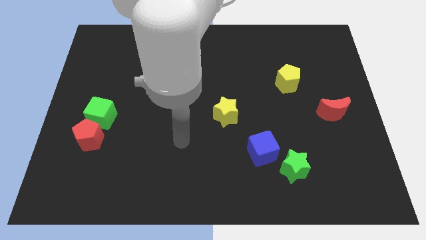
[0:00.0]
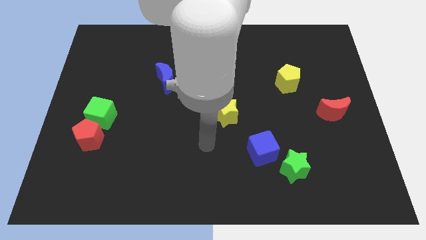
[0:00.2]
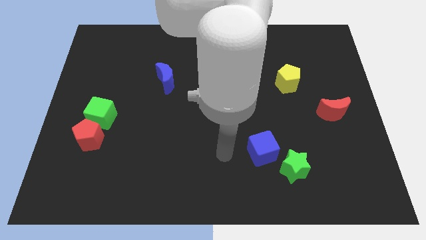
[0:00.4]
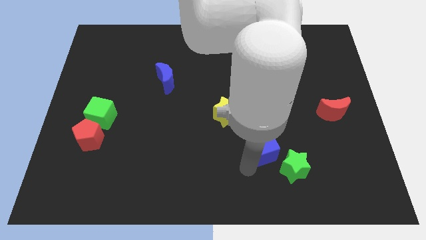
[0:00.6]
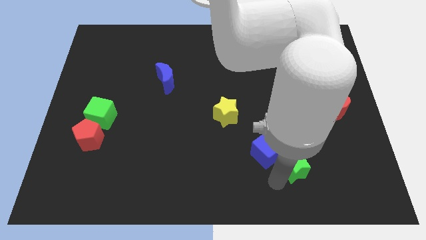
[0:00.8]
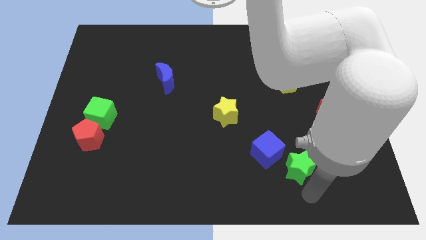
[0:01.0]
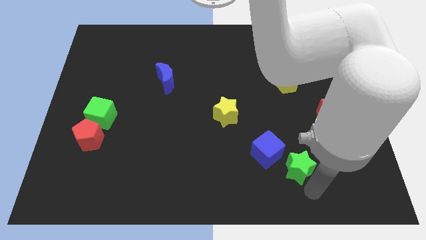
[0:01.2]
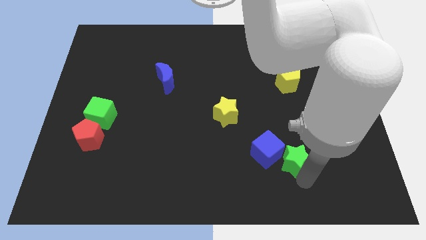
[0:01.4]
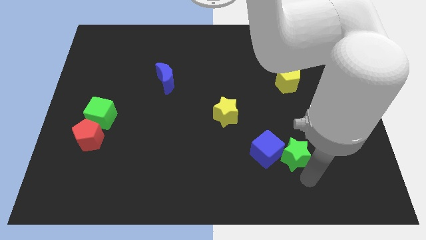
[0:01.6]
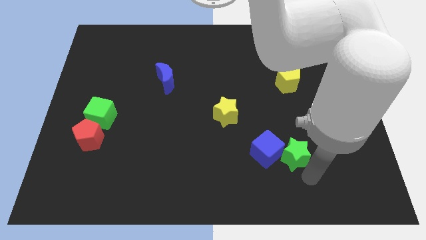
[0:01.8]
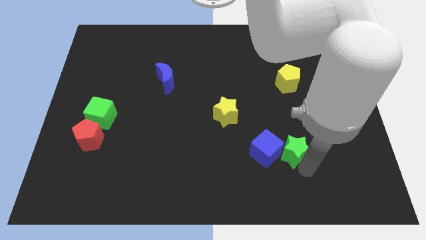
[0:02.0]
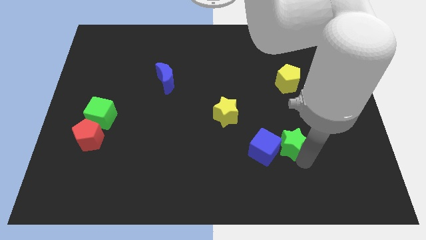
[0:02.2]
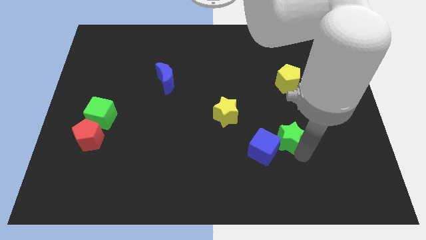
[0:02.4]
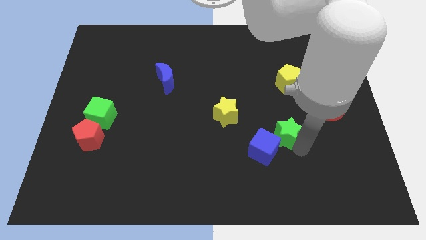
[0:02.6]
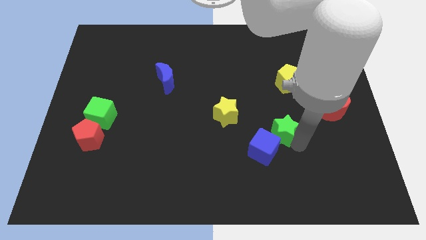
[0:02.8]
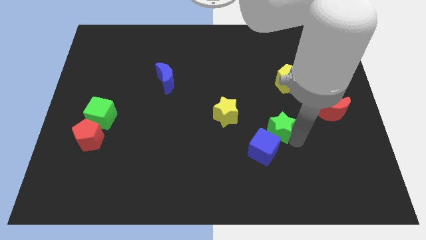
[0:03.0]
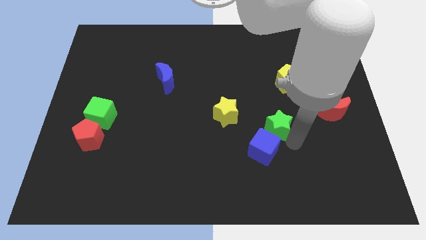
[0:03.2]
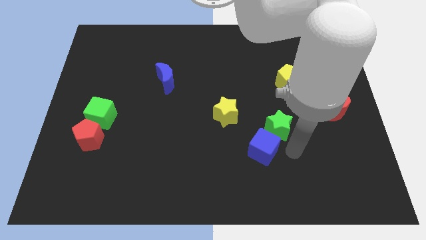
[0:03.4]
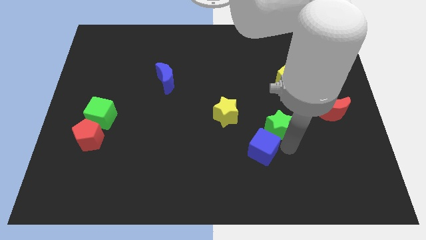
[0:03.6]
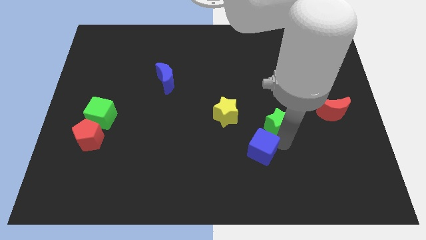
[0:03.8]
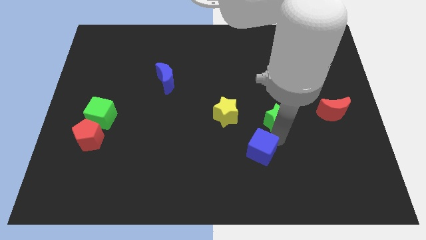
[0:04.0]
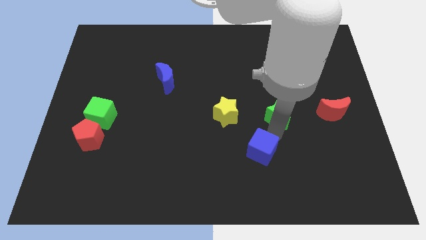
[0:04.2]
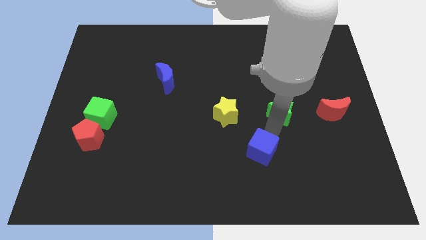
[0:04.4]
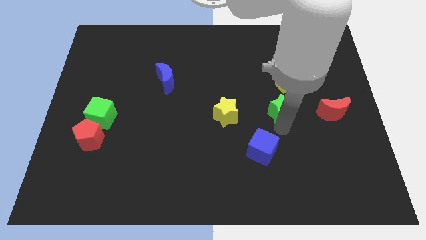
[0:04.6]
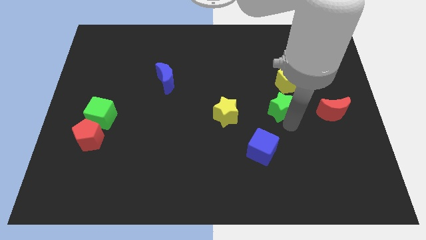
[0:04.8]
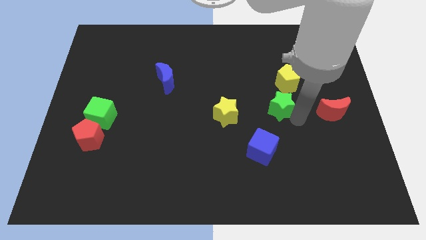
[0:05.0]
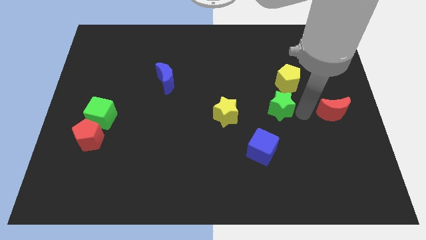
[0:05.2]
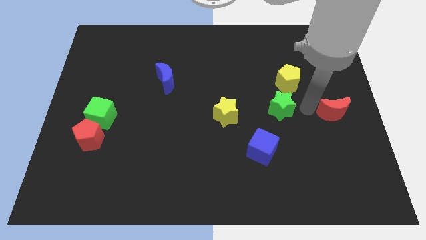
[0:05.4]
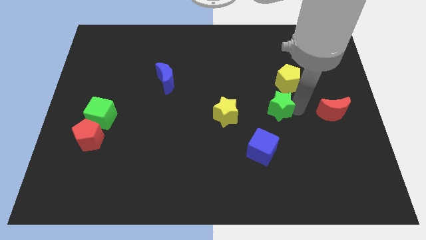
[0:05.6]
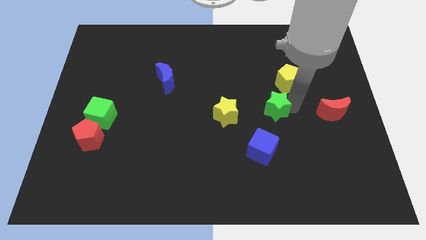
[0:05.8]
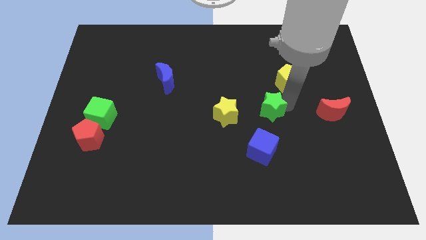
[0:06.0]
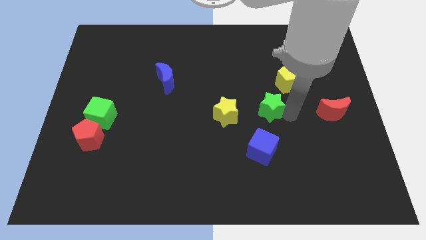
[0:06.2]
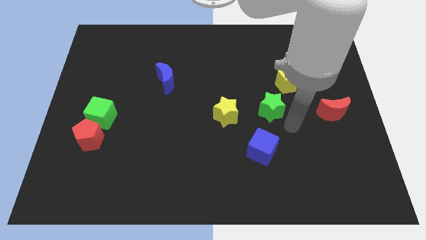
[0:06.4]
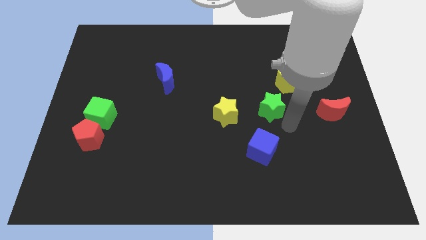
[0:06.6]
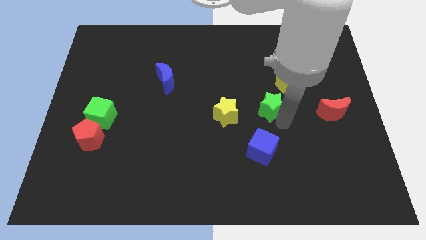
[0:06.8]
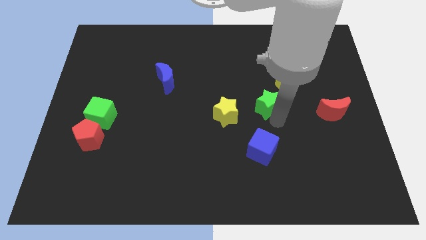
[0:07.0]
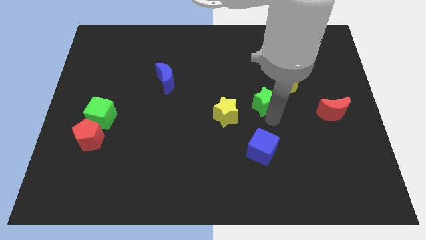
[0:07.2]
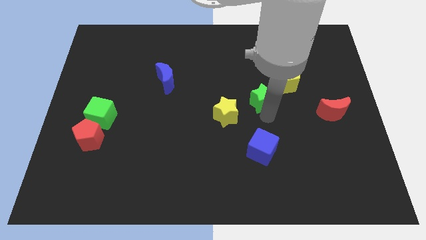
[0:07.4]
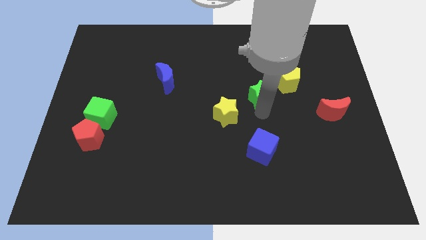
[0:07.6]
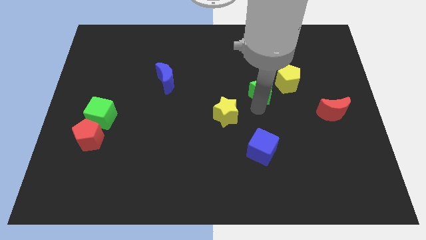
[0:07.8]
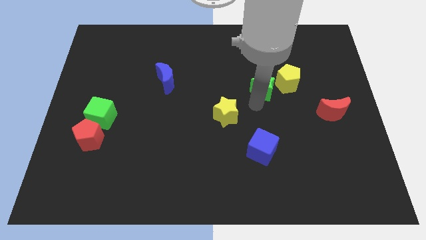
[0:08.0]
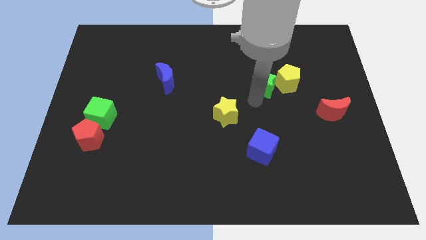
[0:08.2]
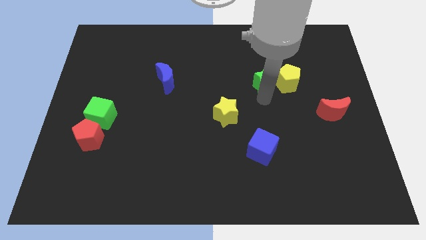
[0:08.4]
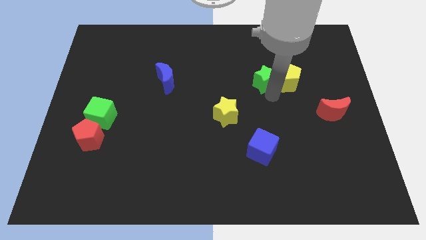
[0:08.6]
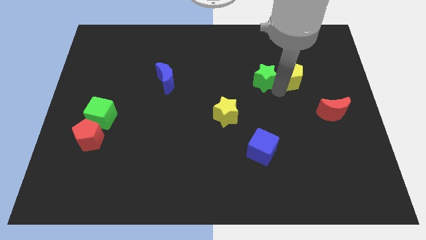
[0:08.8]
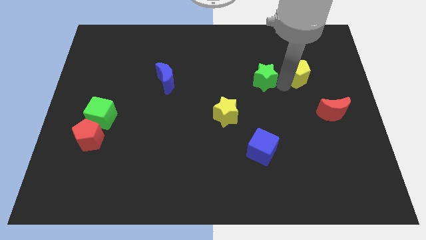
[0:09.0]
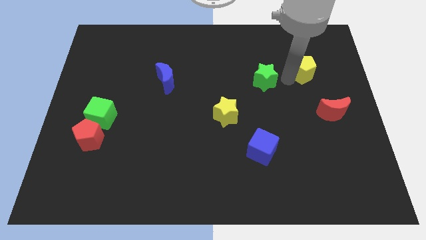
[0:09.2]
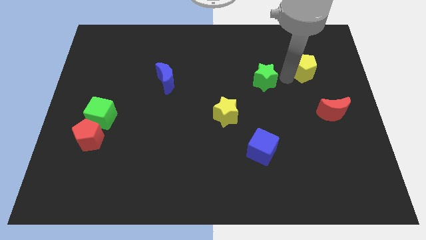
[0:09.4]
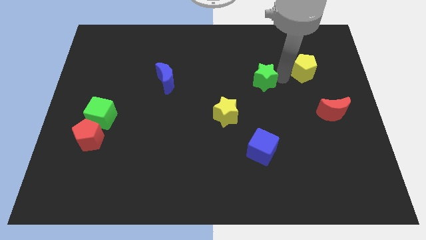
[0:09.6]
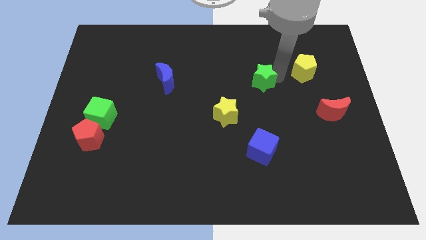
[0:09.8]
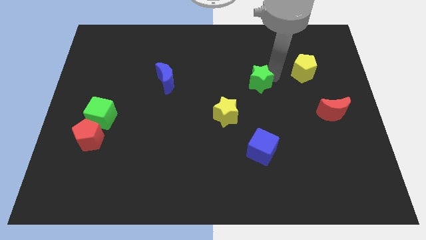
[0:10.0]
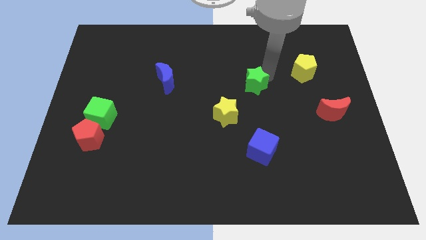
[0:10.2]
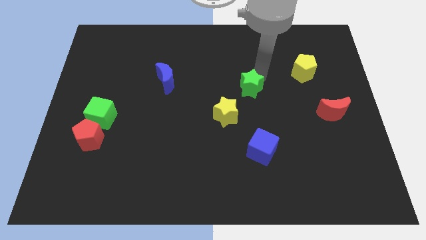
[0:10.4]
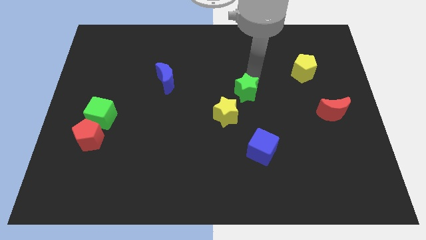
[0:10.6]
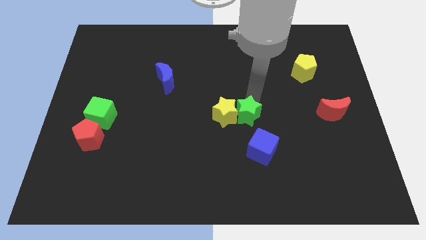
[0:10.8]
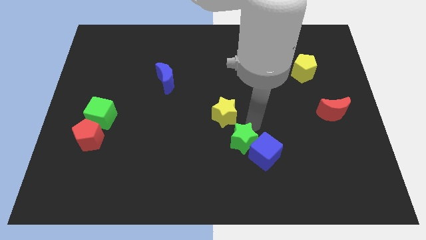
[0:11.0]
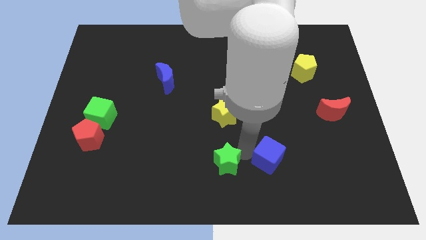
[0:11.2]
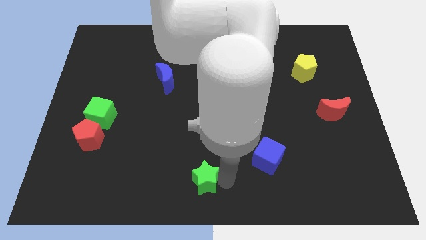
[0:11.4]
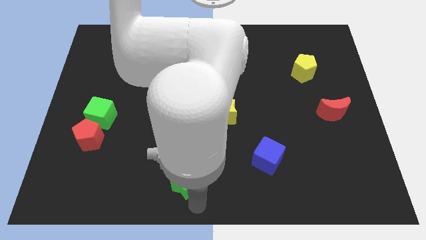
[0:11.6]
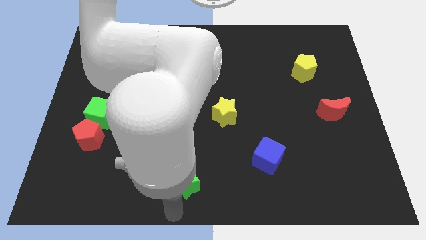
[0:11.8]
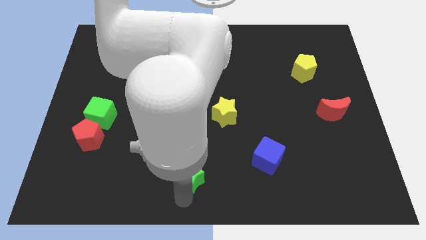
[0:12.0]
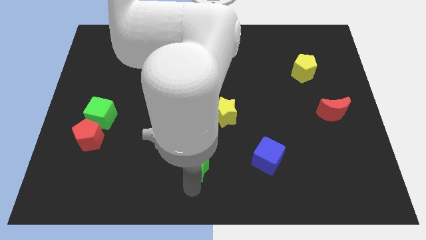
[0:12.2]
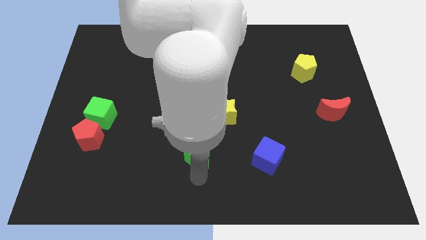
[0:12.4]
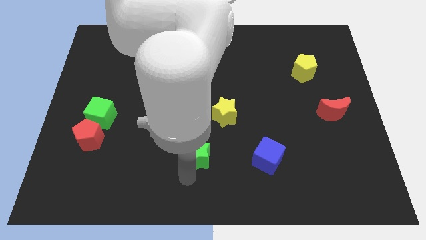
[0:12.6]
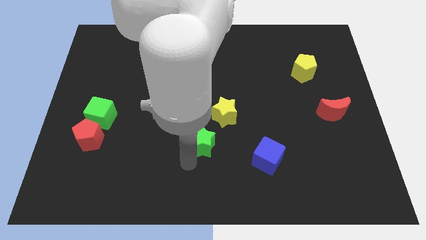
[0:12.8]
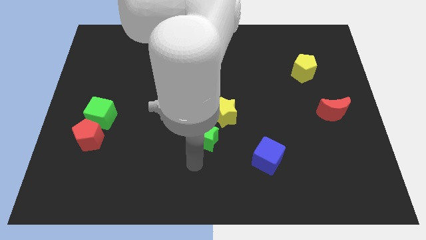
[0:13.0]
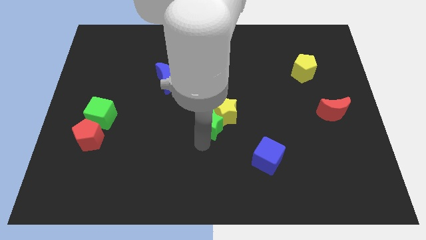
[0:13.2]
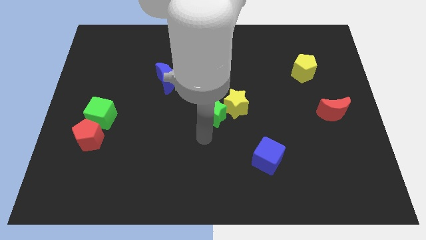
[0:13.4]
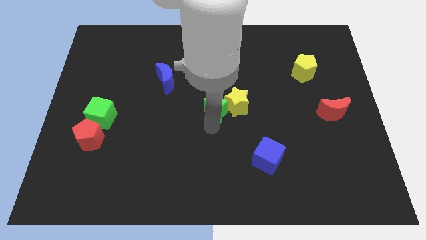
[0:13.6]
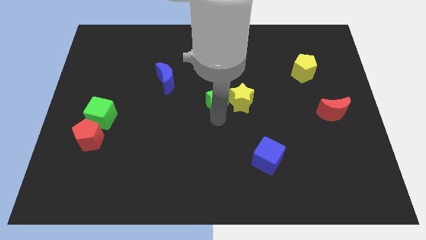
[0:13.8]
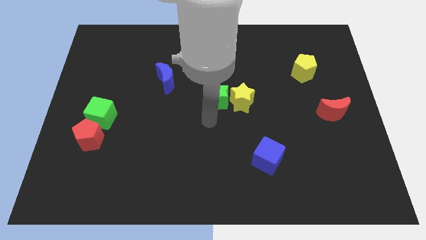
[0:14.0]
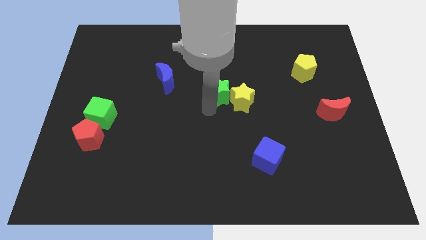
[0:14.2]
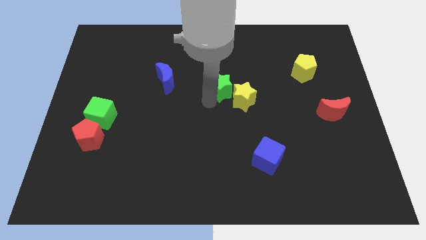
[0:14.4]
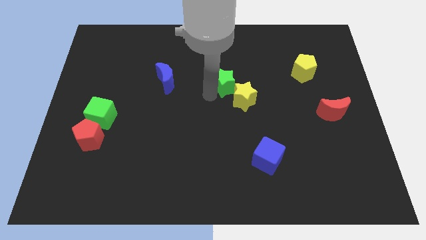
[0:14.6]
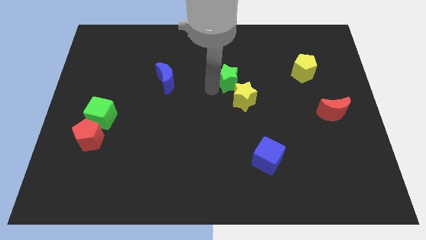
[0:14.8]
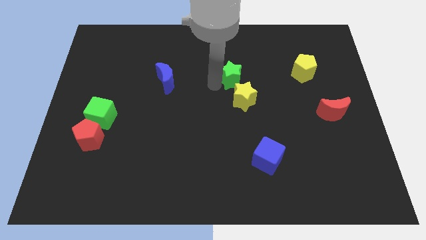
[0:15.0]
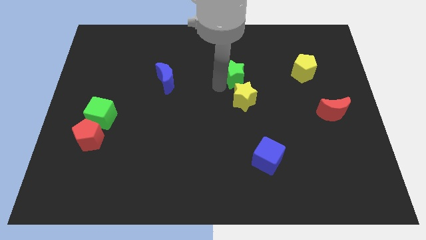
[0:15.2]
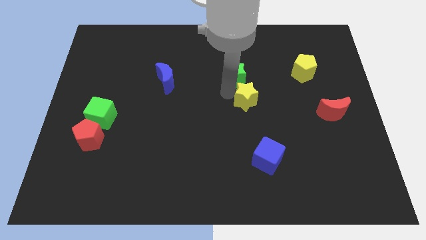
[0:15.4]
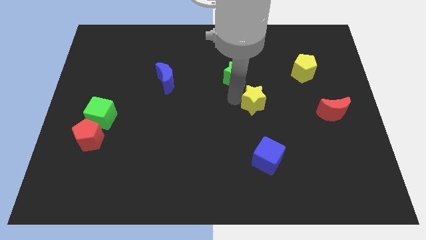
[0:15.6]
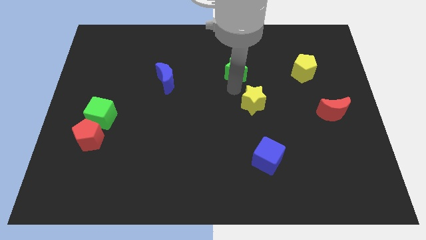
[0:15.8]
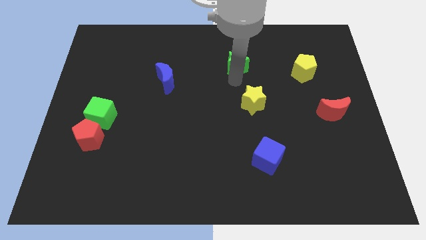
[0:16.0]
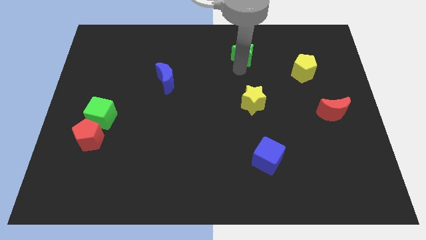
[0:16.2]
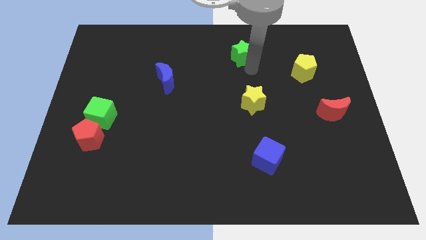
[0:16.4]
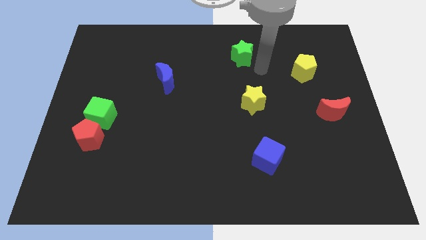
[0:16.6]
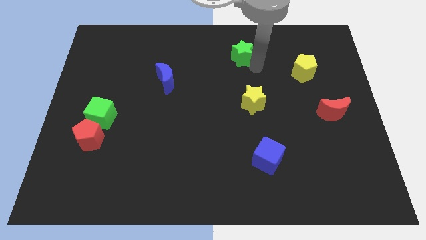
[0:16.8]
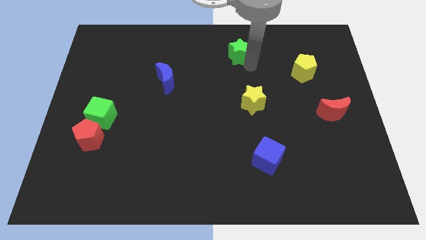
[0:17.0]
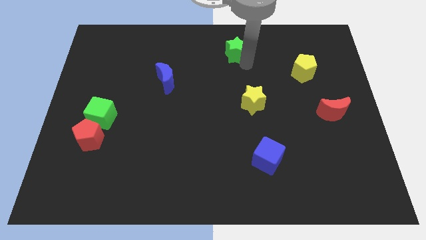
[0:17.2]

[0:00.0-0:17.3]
move the green star to the top side
